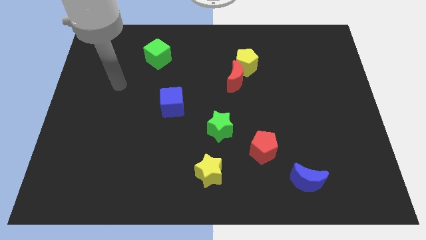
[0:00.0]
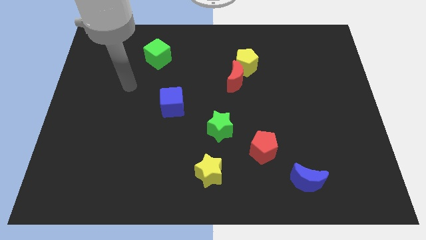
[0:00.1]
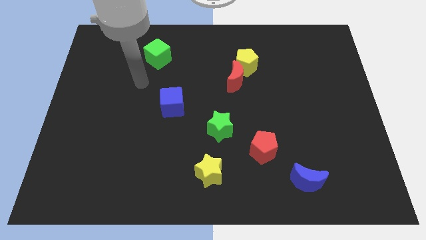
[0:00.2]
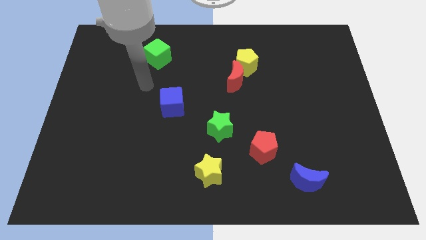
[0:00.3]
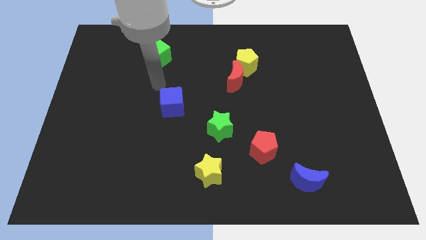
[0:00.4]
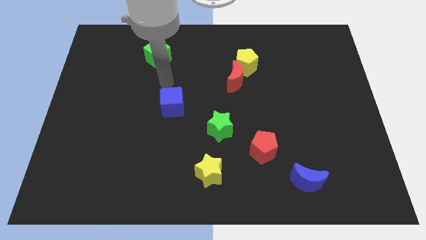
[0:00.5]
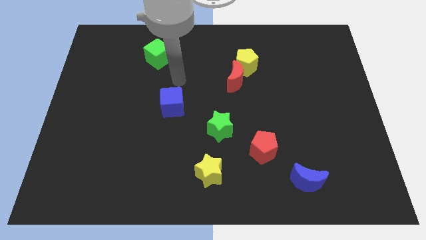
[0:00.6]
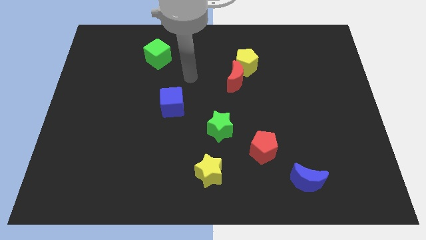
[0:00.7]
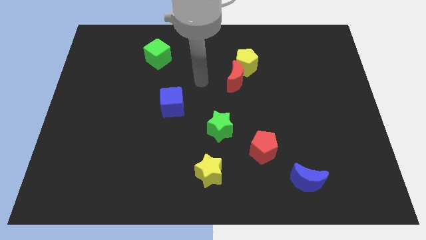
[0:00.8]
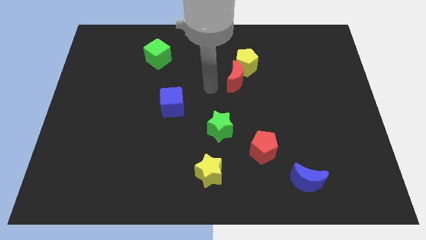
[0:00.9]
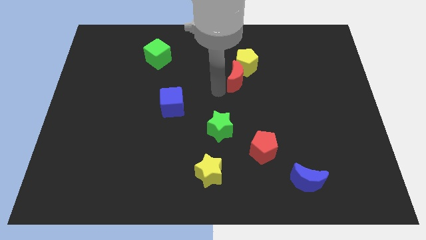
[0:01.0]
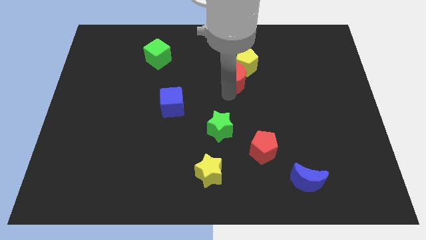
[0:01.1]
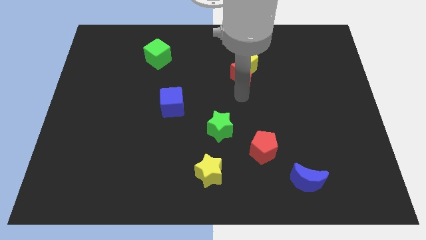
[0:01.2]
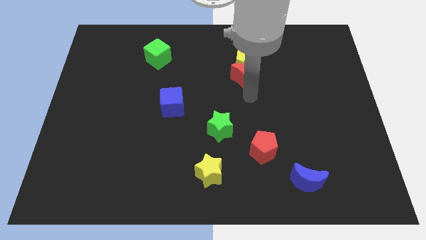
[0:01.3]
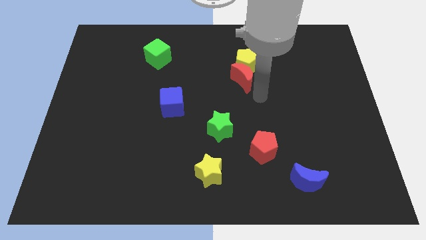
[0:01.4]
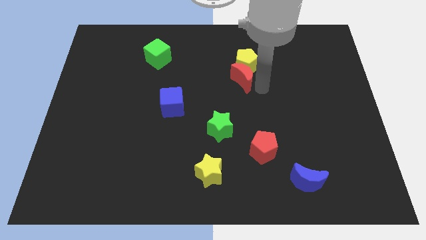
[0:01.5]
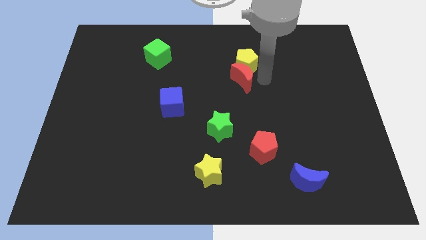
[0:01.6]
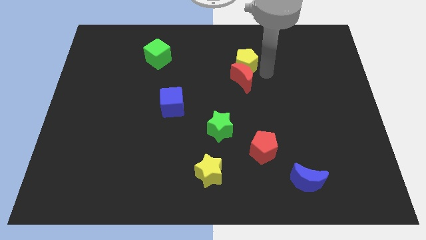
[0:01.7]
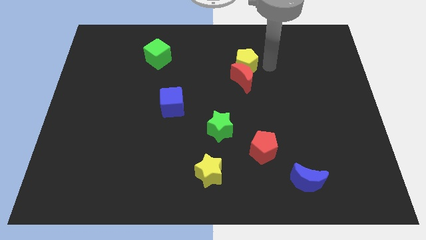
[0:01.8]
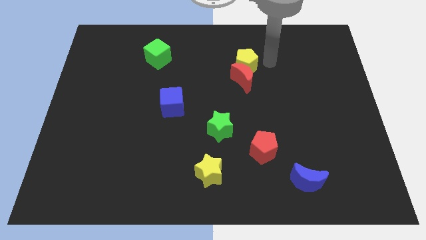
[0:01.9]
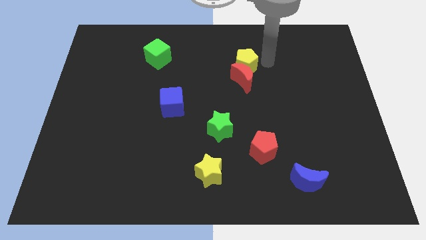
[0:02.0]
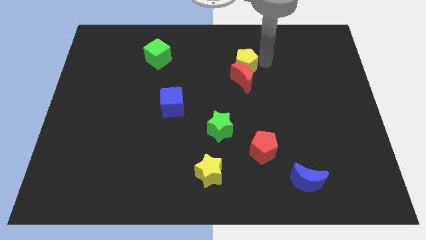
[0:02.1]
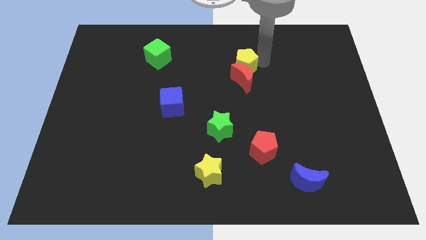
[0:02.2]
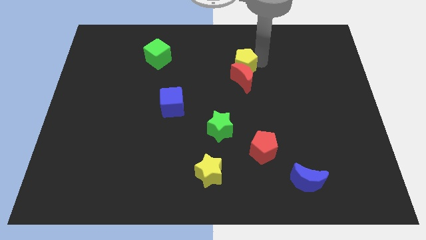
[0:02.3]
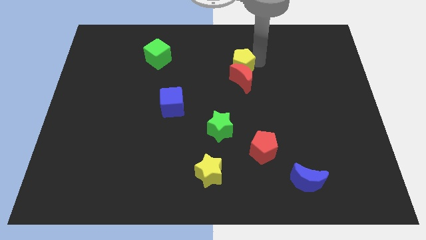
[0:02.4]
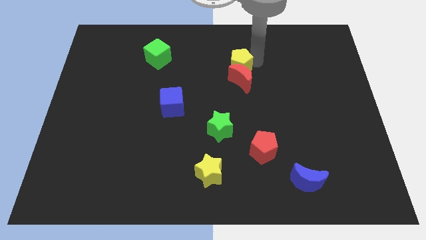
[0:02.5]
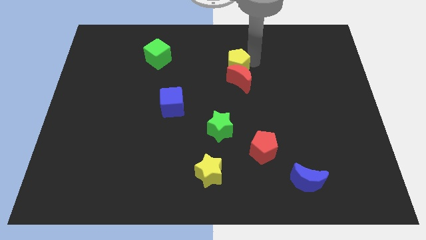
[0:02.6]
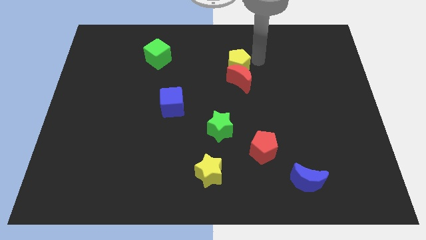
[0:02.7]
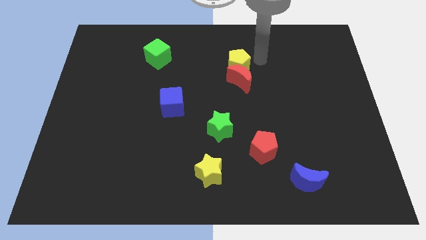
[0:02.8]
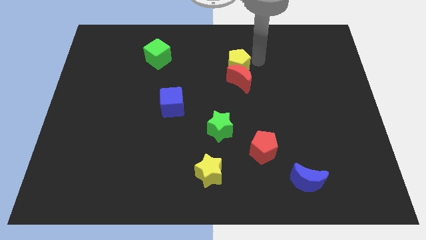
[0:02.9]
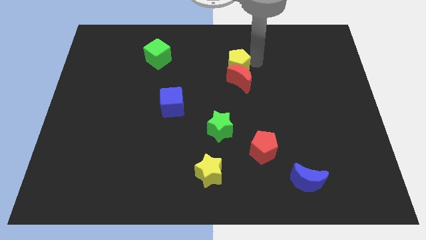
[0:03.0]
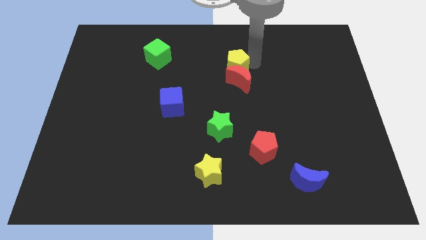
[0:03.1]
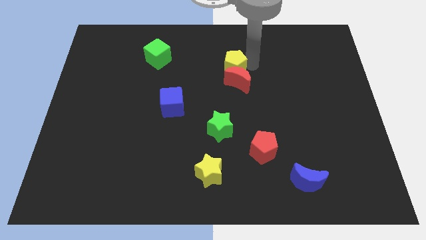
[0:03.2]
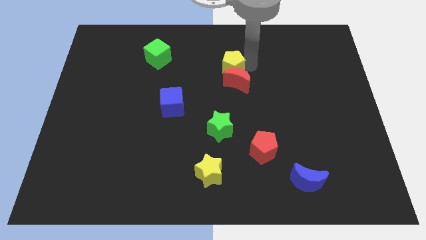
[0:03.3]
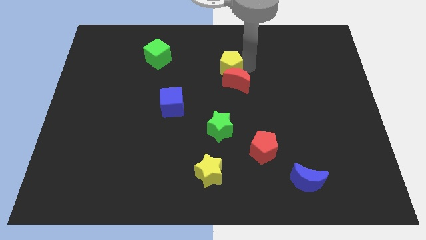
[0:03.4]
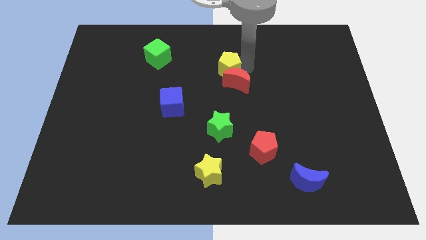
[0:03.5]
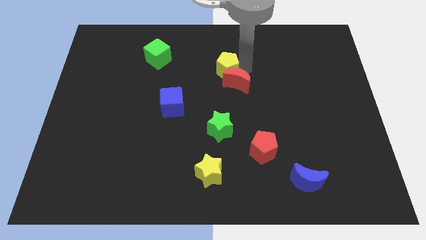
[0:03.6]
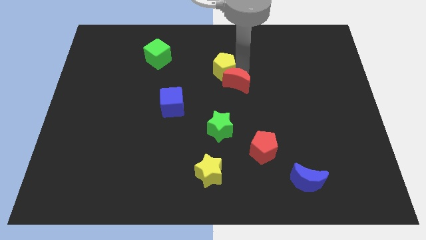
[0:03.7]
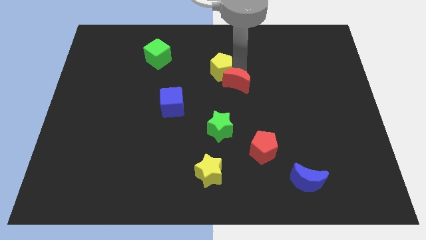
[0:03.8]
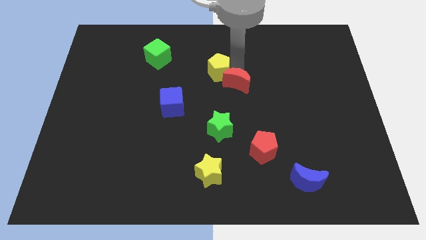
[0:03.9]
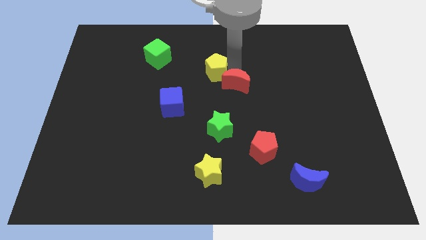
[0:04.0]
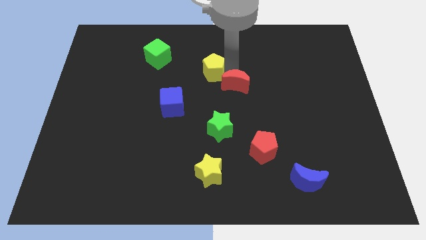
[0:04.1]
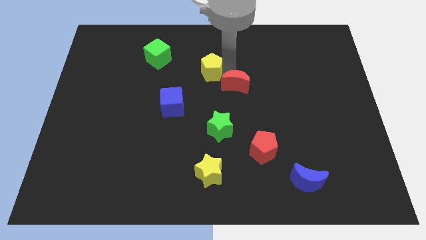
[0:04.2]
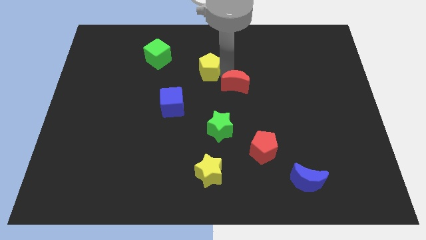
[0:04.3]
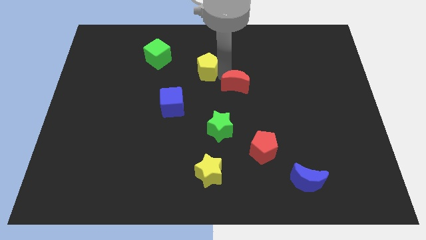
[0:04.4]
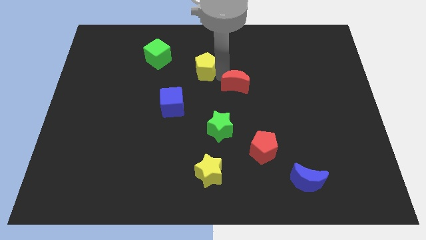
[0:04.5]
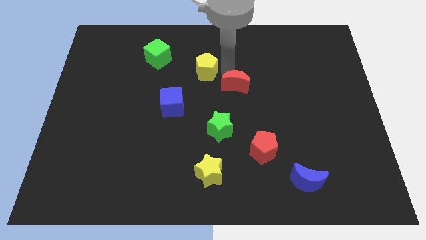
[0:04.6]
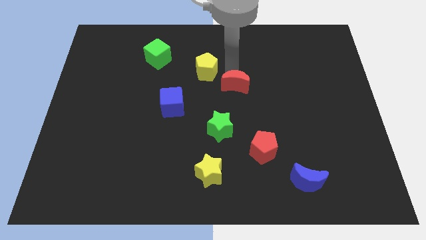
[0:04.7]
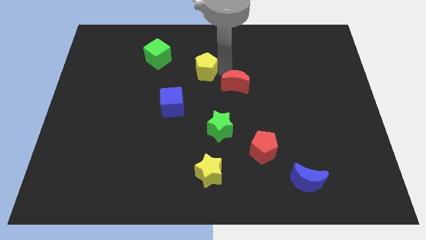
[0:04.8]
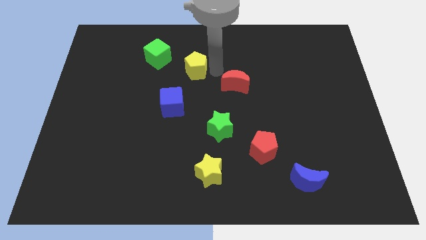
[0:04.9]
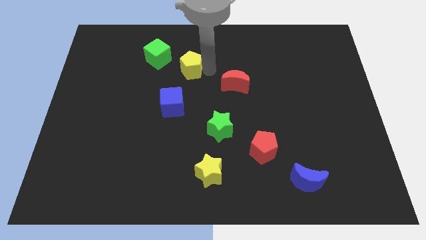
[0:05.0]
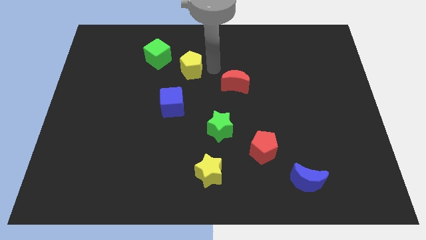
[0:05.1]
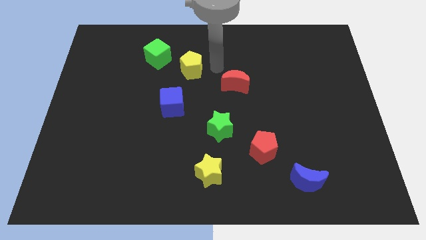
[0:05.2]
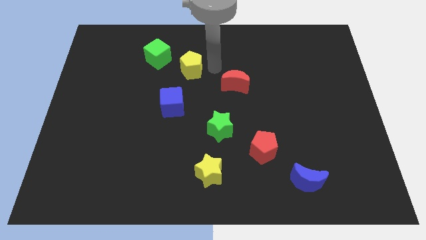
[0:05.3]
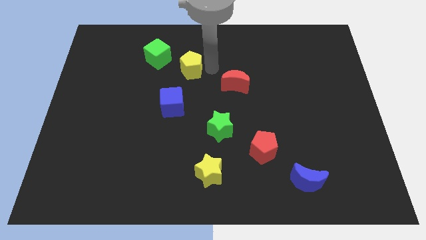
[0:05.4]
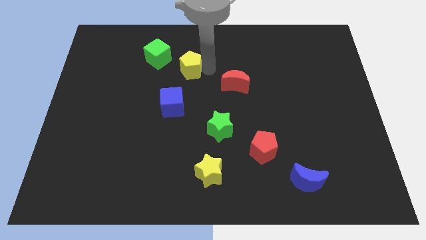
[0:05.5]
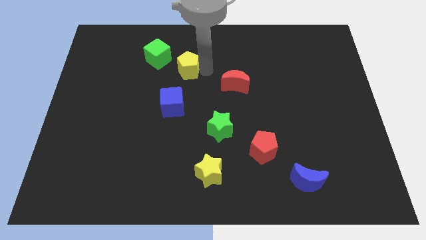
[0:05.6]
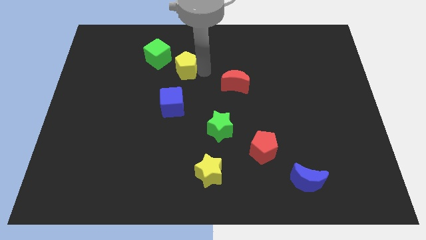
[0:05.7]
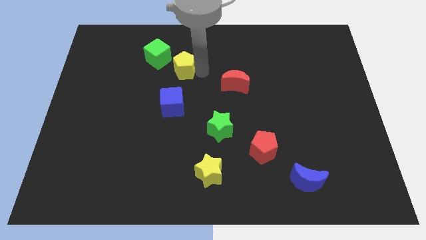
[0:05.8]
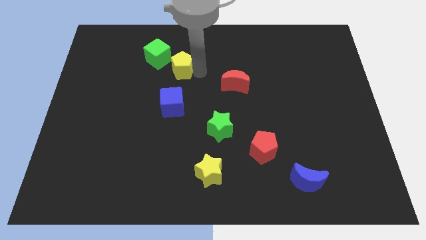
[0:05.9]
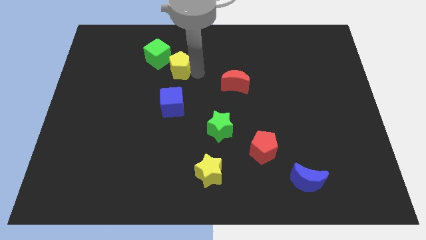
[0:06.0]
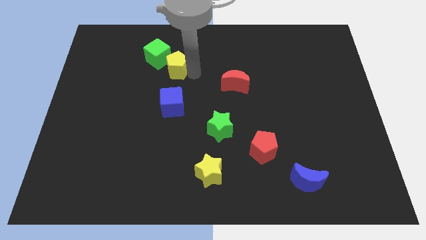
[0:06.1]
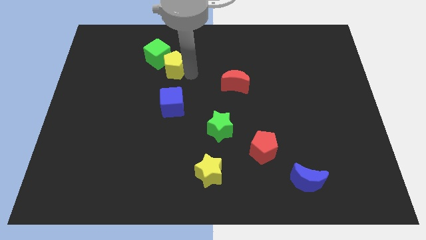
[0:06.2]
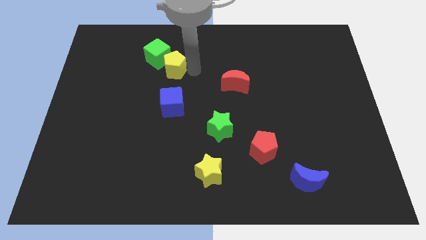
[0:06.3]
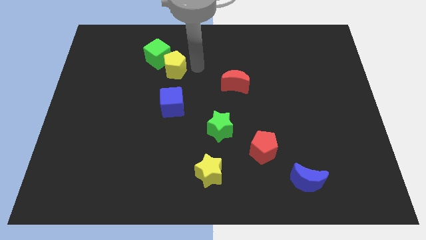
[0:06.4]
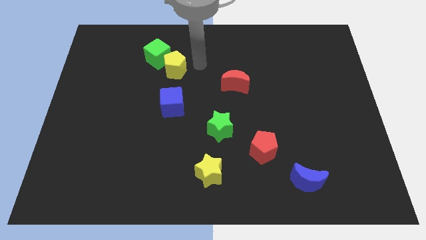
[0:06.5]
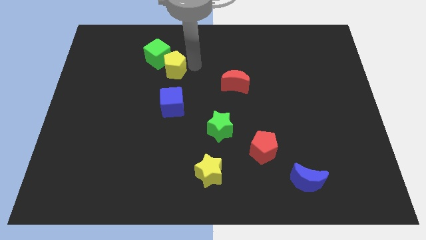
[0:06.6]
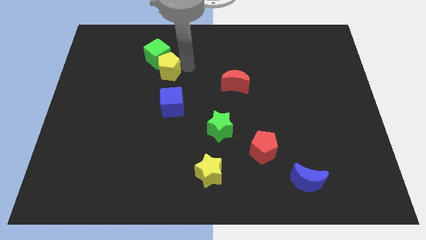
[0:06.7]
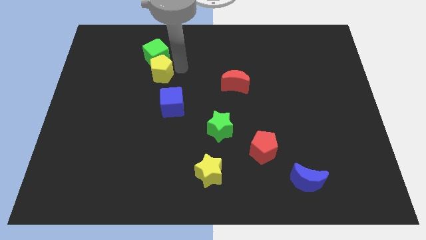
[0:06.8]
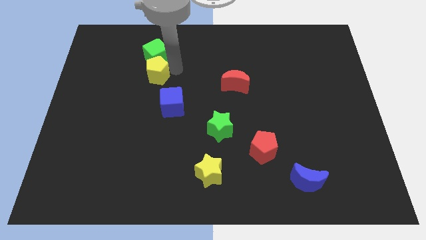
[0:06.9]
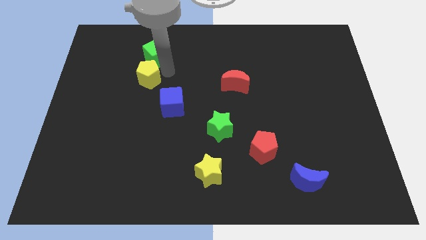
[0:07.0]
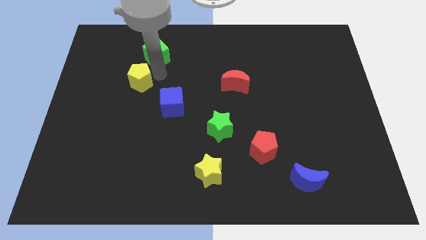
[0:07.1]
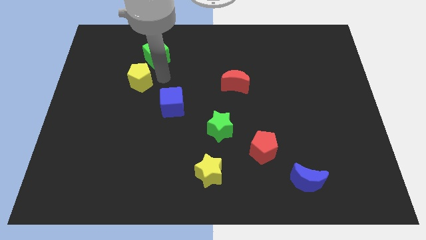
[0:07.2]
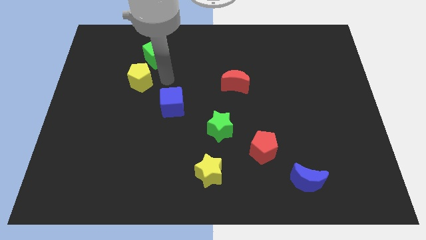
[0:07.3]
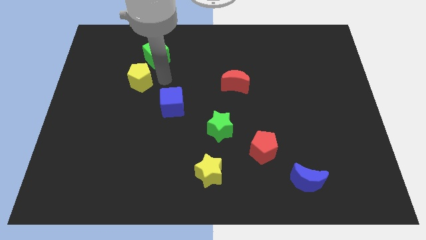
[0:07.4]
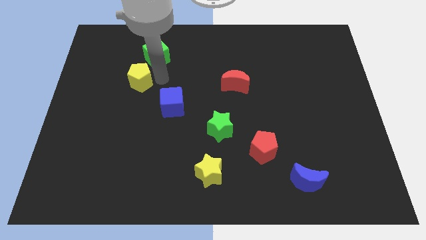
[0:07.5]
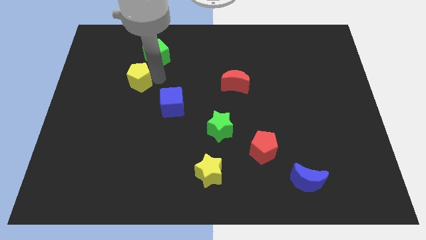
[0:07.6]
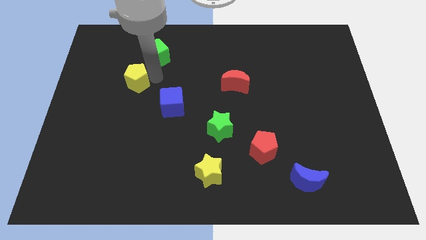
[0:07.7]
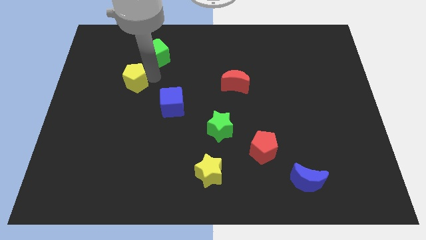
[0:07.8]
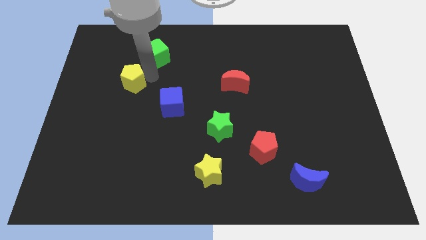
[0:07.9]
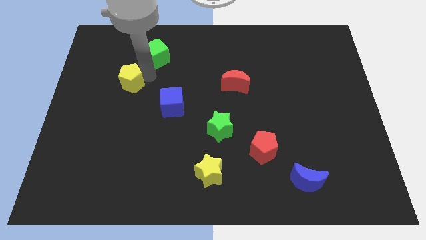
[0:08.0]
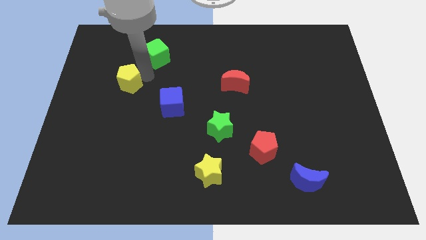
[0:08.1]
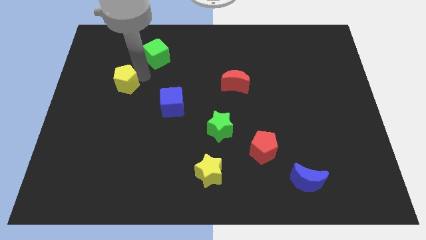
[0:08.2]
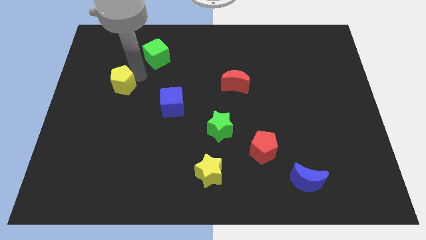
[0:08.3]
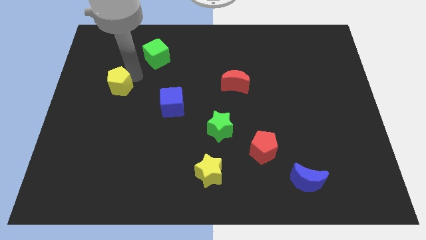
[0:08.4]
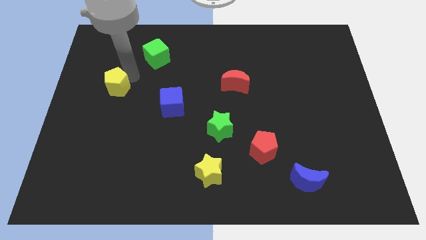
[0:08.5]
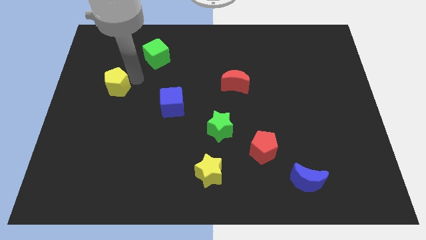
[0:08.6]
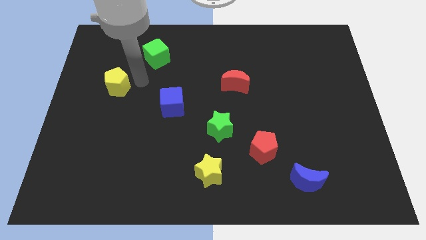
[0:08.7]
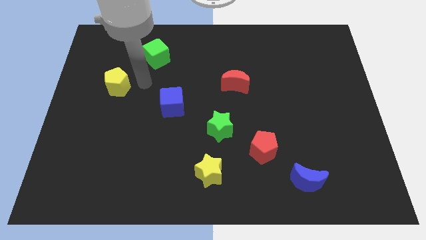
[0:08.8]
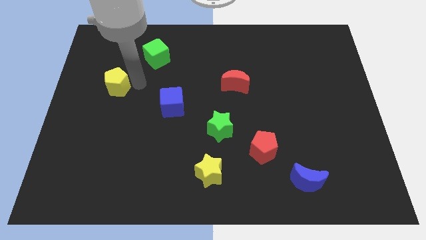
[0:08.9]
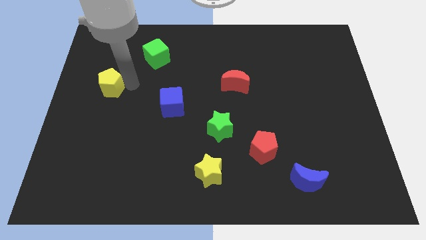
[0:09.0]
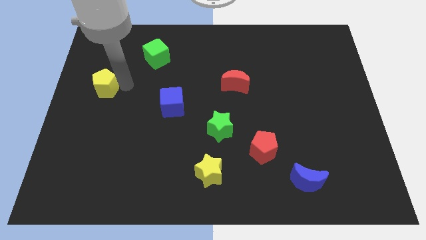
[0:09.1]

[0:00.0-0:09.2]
move the yellow pentagon to the left side of the board
